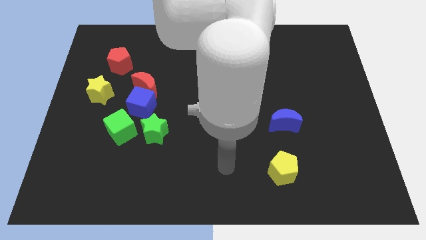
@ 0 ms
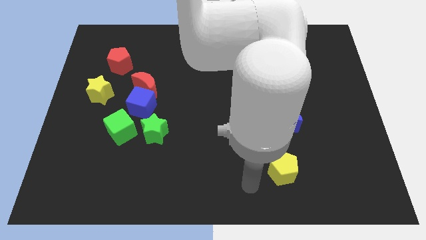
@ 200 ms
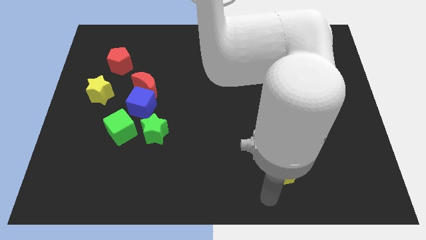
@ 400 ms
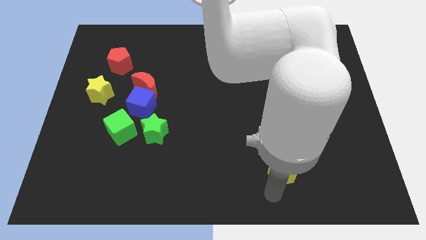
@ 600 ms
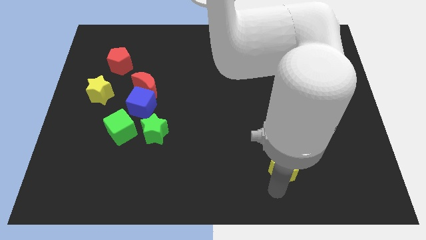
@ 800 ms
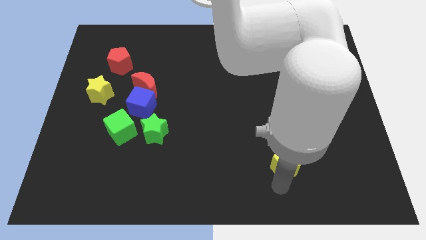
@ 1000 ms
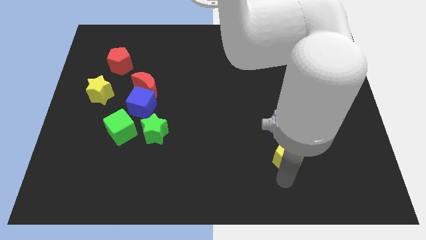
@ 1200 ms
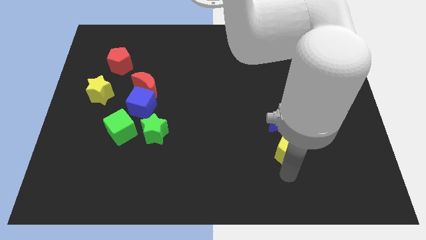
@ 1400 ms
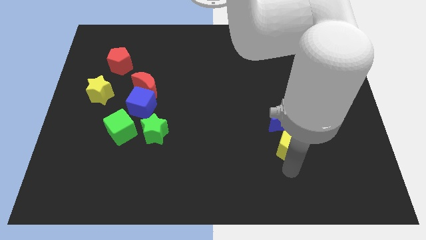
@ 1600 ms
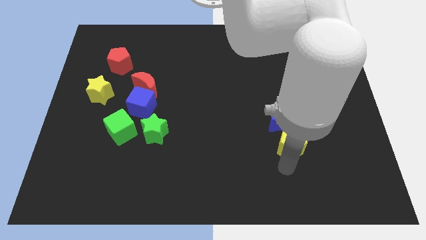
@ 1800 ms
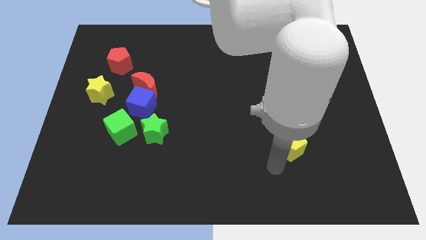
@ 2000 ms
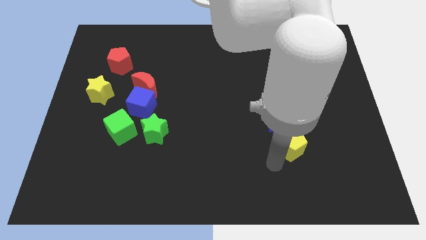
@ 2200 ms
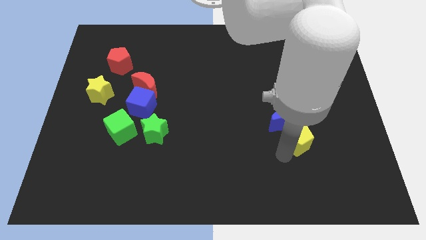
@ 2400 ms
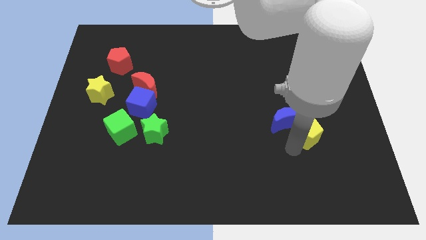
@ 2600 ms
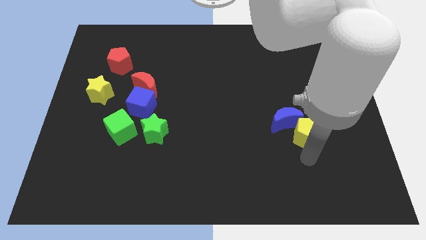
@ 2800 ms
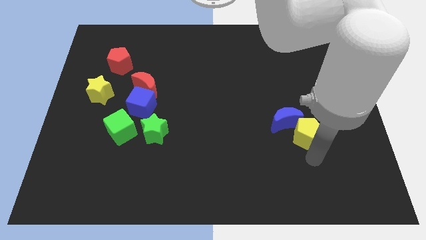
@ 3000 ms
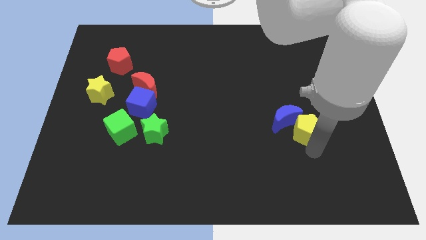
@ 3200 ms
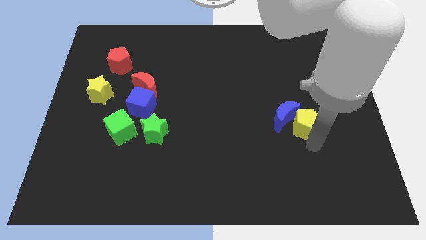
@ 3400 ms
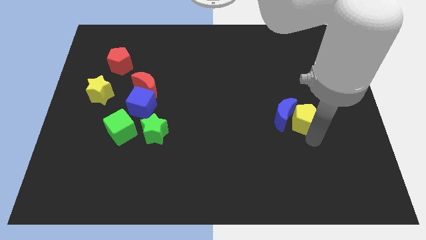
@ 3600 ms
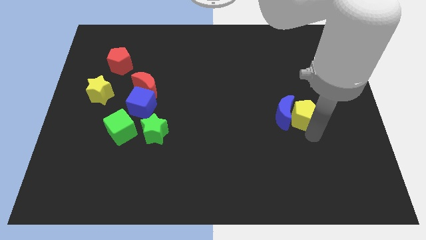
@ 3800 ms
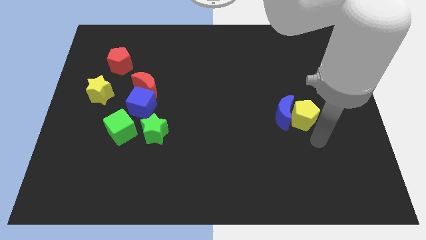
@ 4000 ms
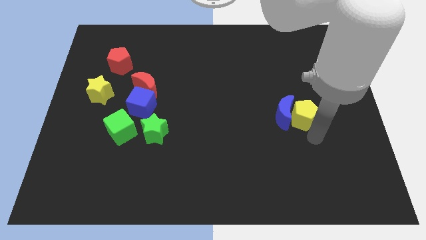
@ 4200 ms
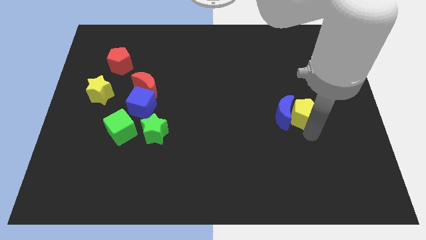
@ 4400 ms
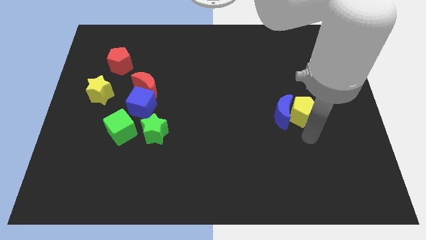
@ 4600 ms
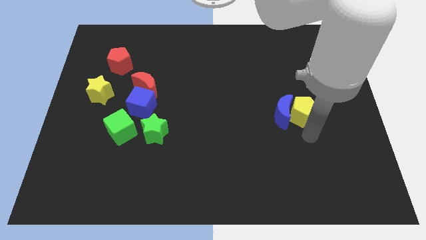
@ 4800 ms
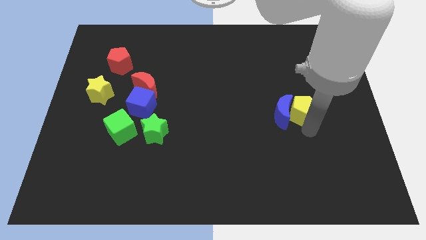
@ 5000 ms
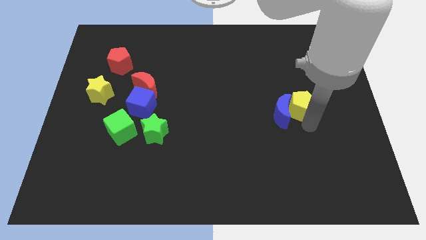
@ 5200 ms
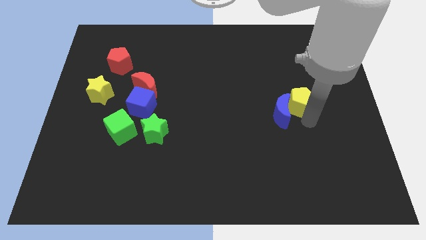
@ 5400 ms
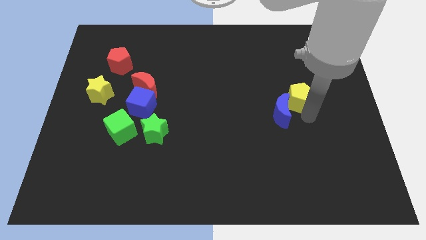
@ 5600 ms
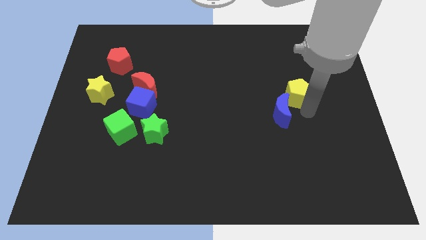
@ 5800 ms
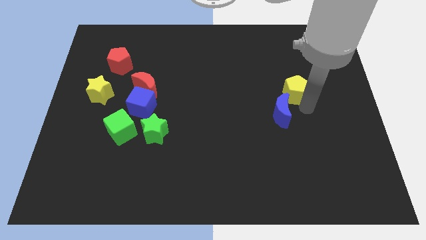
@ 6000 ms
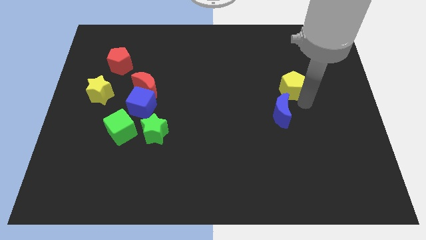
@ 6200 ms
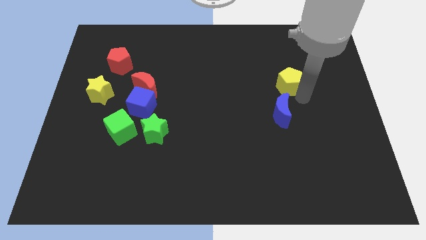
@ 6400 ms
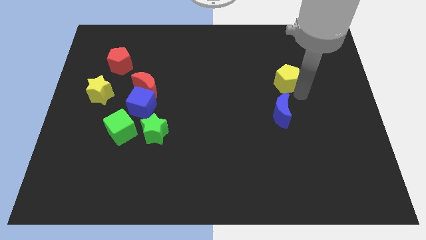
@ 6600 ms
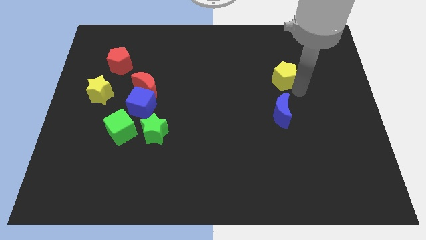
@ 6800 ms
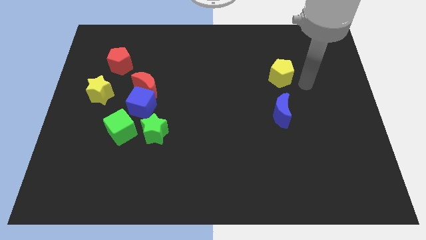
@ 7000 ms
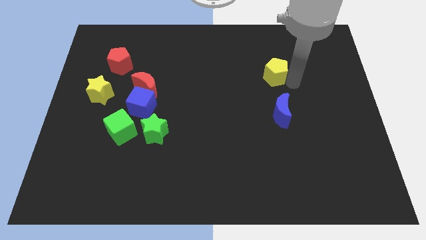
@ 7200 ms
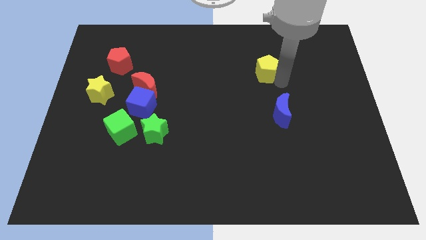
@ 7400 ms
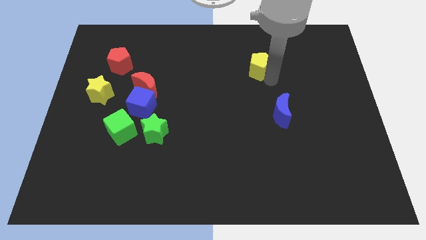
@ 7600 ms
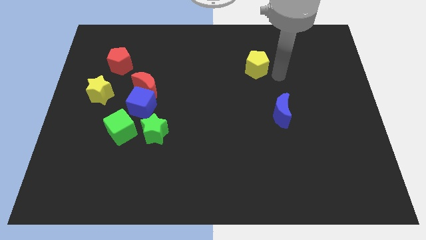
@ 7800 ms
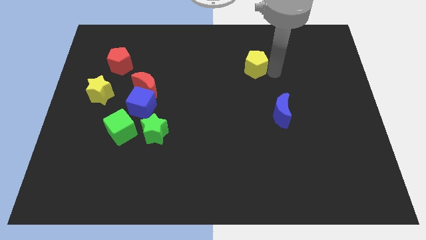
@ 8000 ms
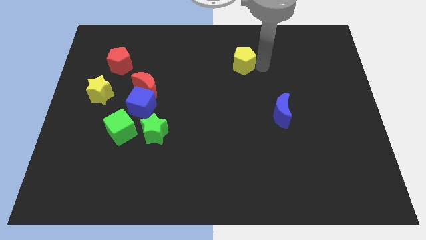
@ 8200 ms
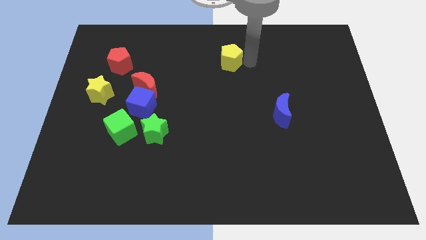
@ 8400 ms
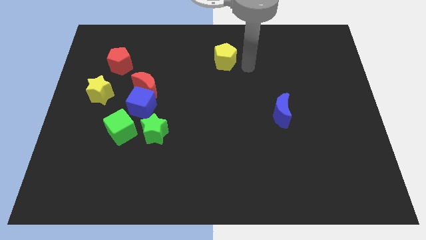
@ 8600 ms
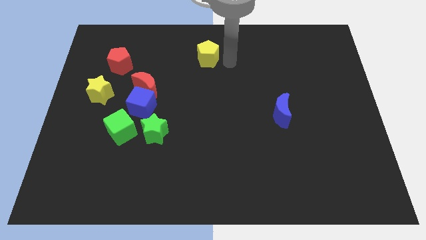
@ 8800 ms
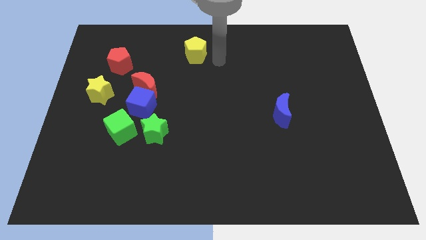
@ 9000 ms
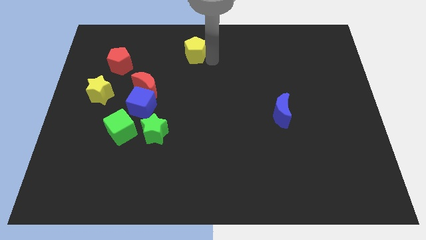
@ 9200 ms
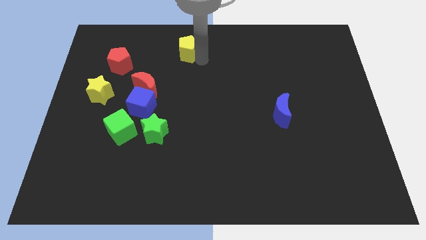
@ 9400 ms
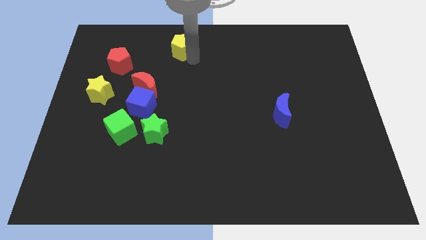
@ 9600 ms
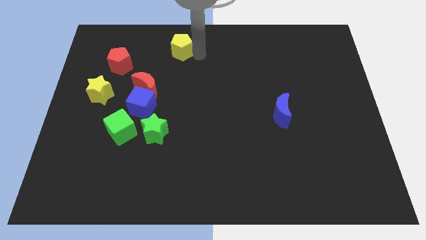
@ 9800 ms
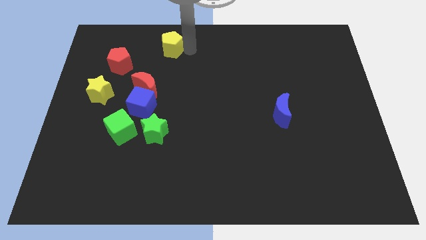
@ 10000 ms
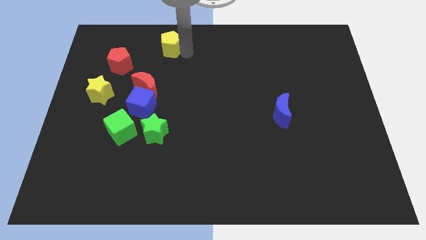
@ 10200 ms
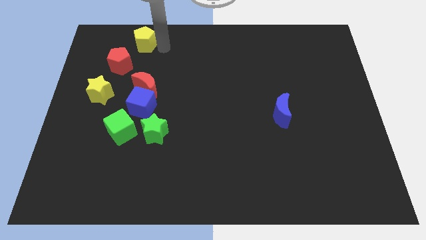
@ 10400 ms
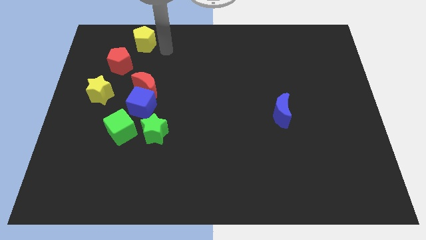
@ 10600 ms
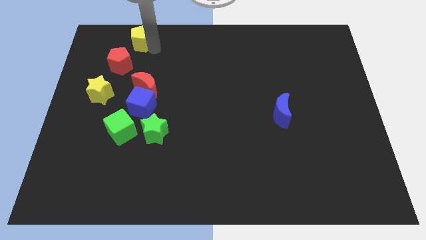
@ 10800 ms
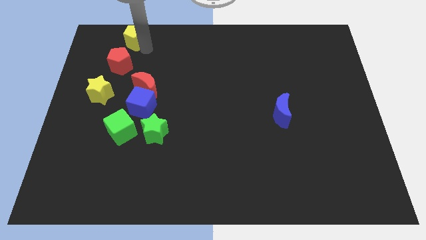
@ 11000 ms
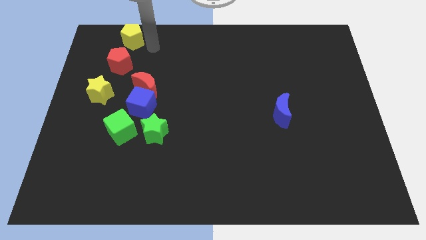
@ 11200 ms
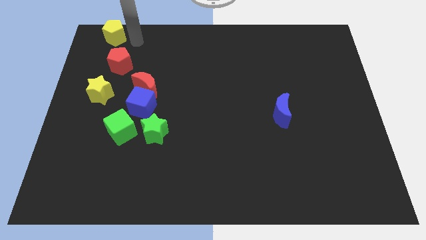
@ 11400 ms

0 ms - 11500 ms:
push the yellow pentagon to the top left corner

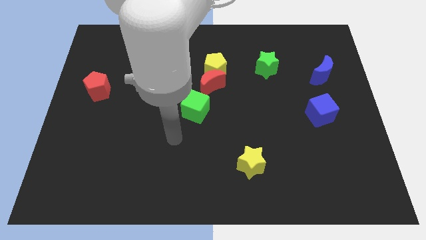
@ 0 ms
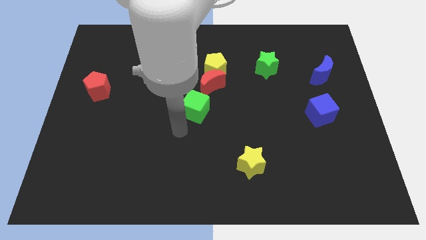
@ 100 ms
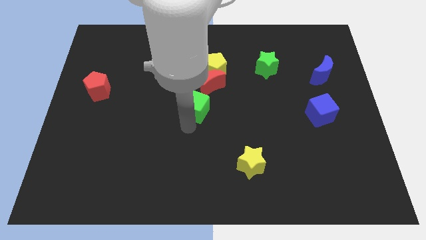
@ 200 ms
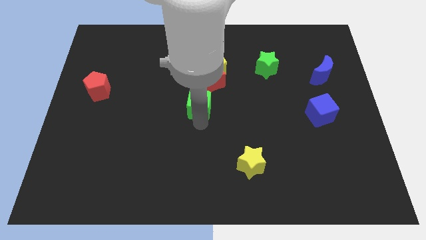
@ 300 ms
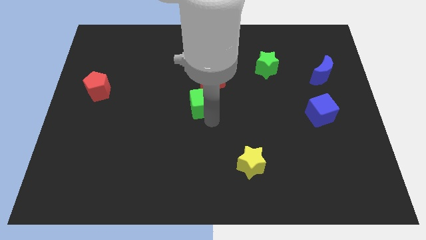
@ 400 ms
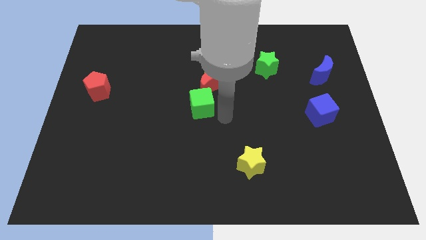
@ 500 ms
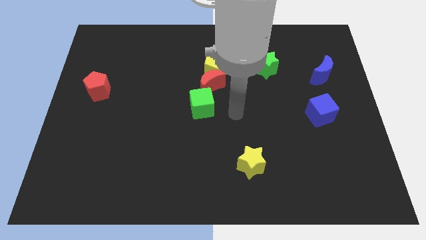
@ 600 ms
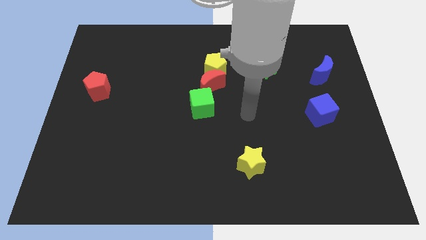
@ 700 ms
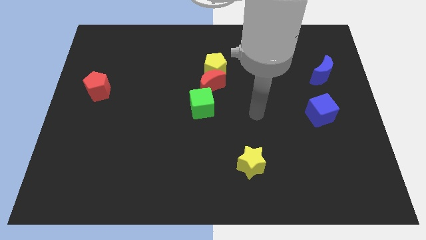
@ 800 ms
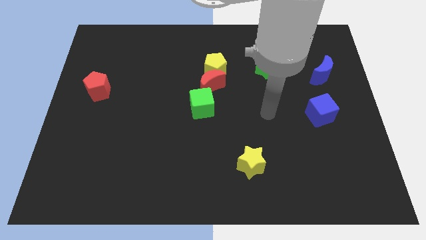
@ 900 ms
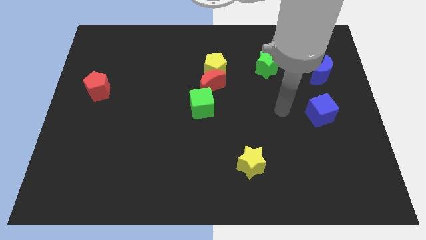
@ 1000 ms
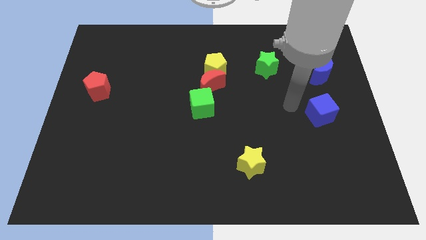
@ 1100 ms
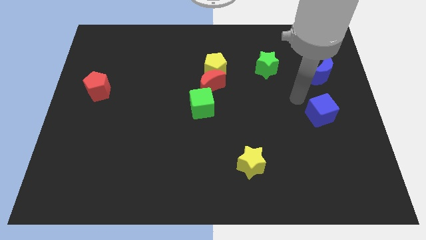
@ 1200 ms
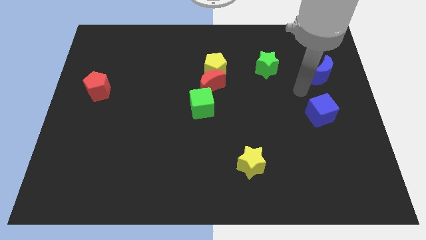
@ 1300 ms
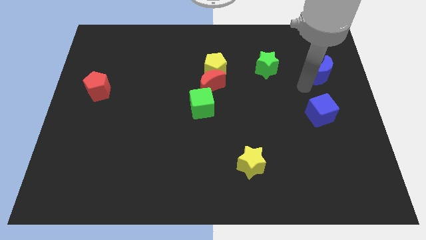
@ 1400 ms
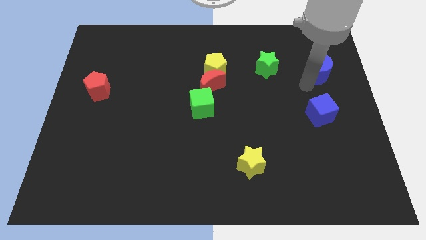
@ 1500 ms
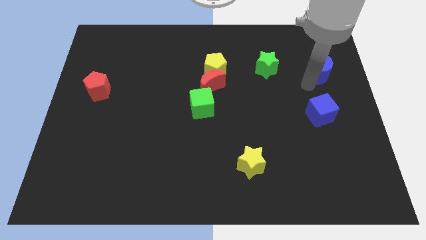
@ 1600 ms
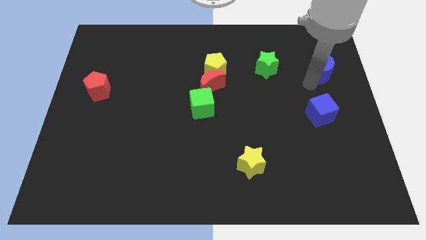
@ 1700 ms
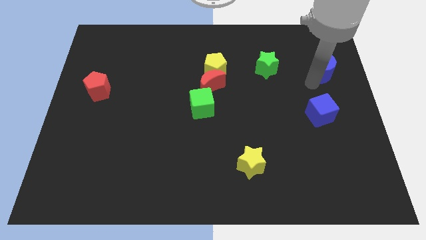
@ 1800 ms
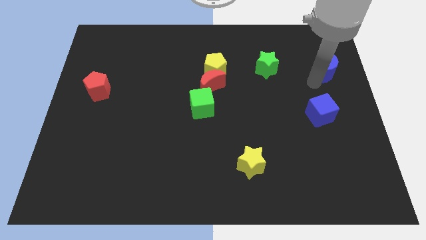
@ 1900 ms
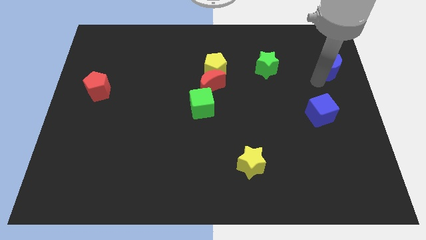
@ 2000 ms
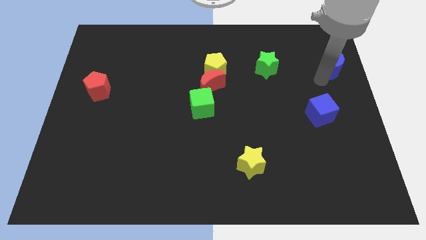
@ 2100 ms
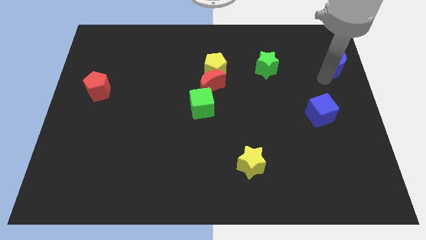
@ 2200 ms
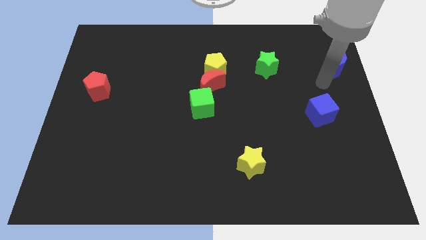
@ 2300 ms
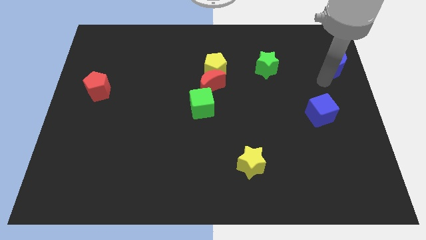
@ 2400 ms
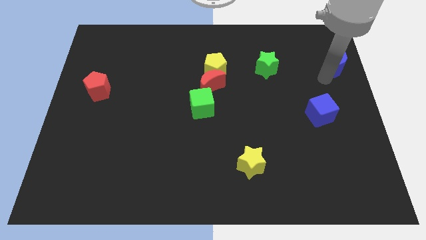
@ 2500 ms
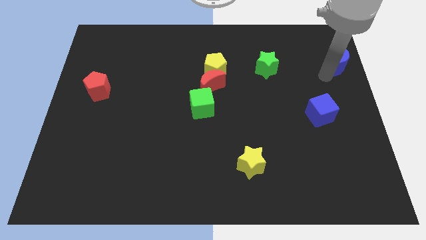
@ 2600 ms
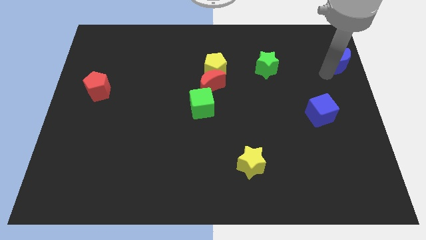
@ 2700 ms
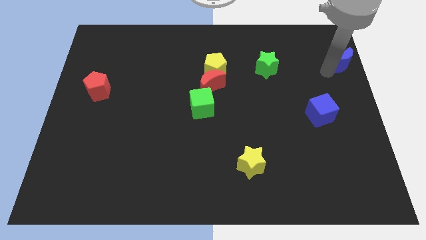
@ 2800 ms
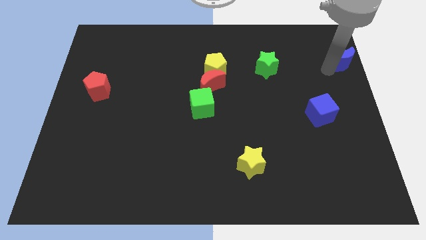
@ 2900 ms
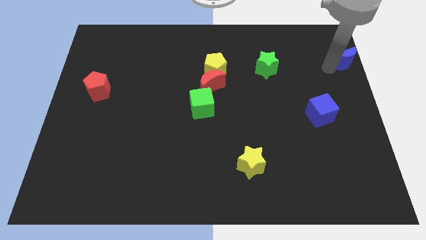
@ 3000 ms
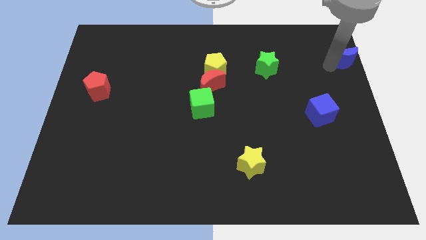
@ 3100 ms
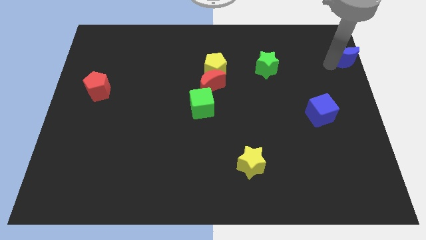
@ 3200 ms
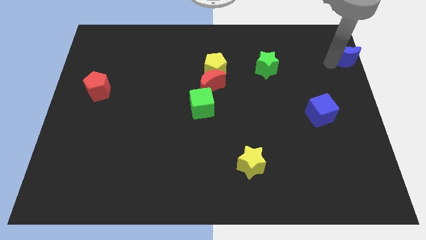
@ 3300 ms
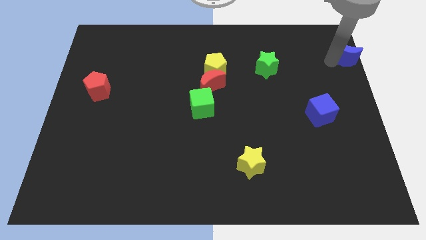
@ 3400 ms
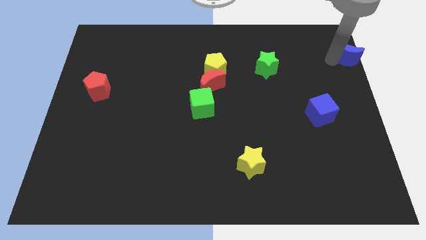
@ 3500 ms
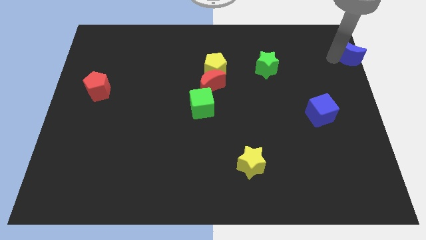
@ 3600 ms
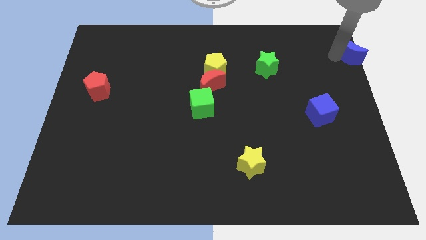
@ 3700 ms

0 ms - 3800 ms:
move the blue moon to the upper right corner
